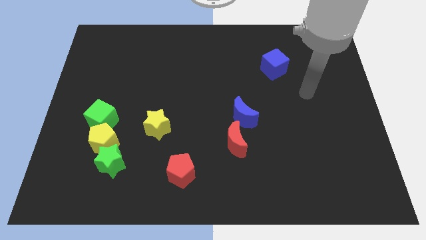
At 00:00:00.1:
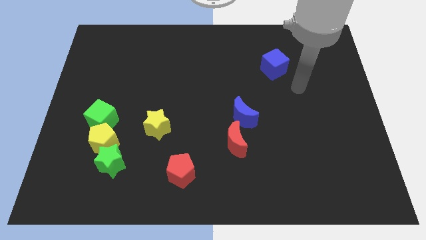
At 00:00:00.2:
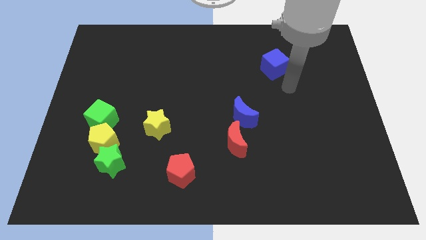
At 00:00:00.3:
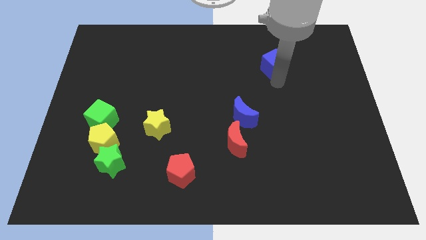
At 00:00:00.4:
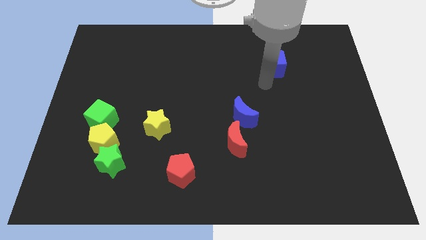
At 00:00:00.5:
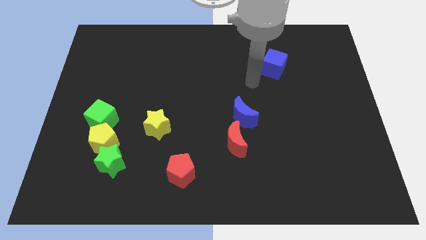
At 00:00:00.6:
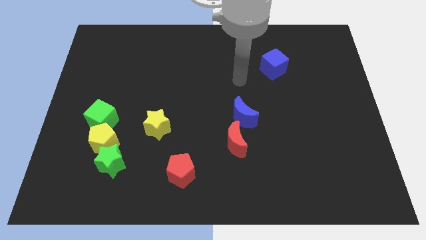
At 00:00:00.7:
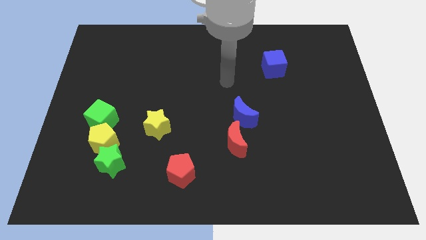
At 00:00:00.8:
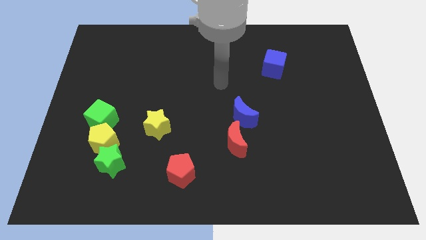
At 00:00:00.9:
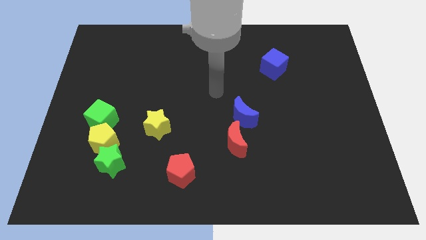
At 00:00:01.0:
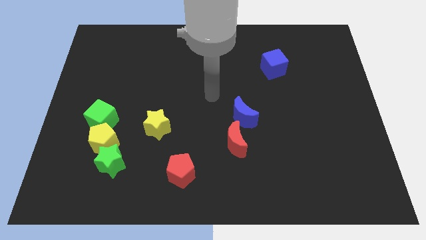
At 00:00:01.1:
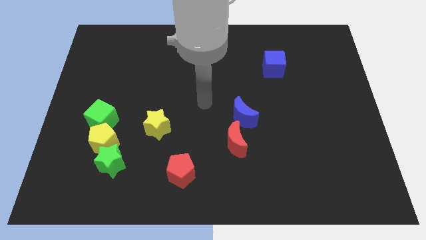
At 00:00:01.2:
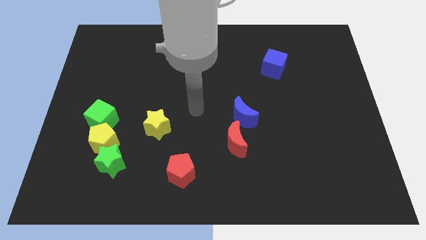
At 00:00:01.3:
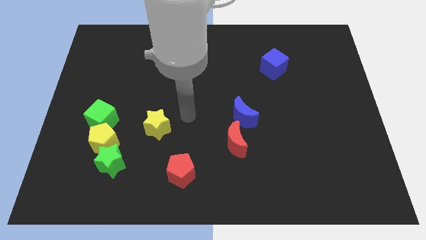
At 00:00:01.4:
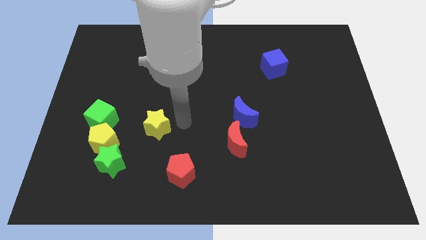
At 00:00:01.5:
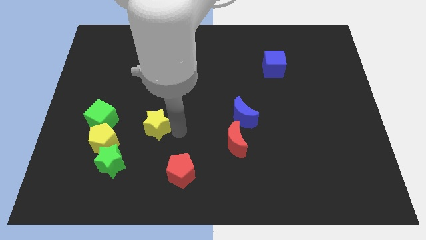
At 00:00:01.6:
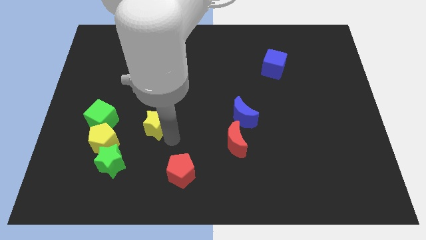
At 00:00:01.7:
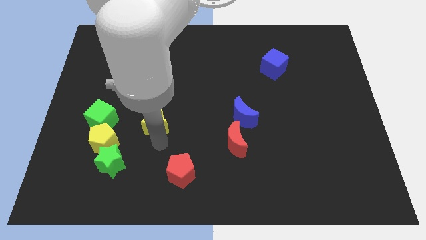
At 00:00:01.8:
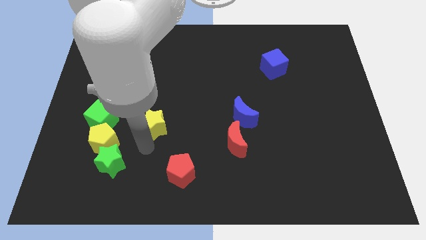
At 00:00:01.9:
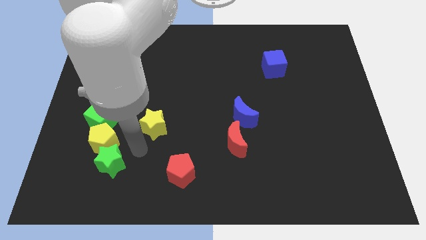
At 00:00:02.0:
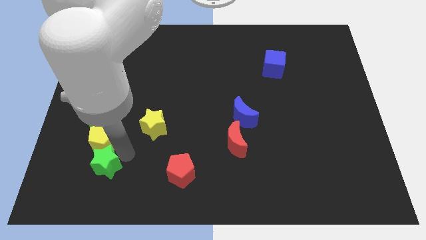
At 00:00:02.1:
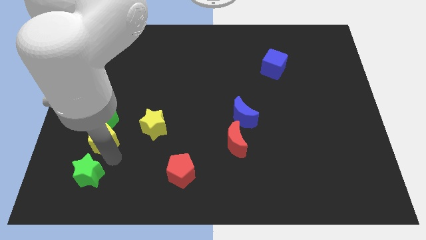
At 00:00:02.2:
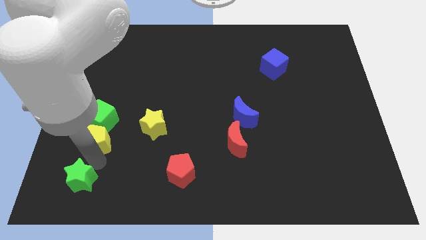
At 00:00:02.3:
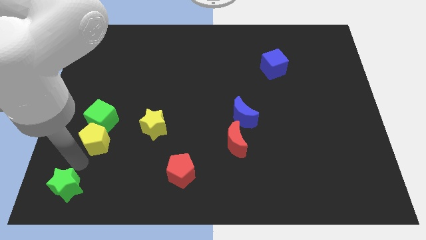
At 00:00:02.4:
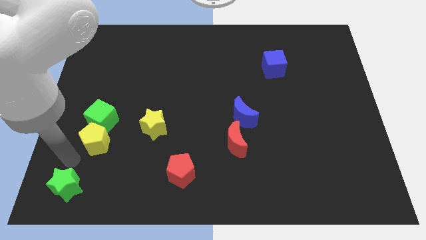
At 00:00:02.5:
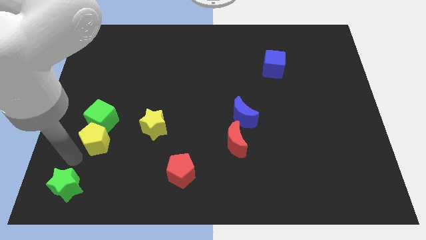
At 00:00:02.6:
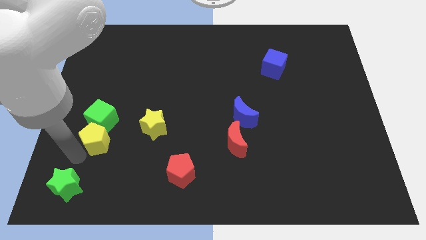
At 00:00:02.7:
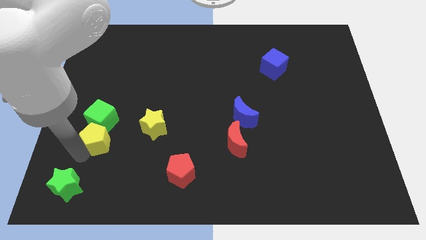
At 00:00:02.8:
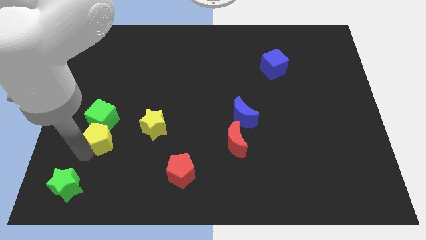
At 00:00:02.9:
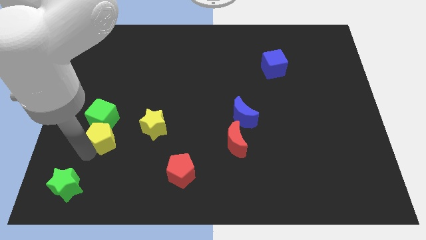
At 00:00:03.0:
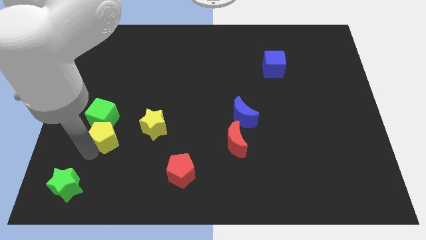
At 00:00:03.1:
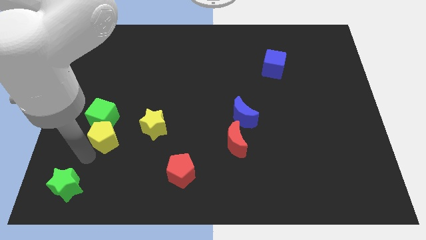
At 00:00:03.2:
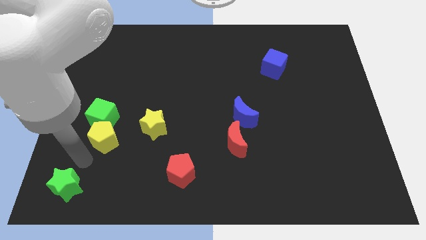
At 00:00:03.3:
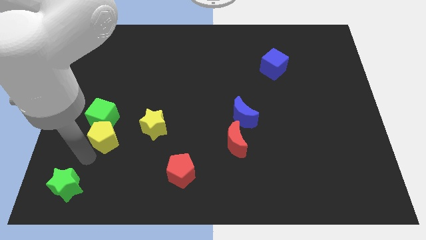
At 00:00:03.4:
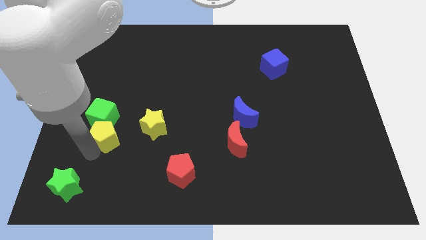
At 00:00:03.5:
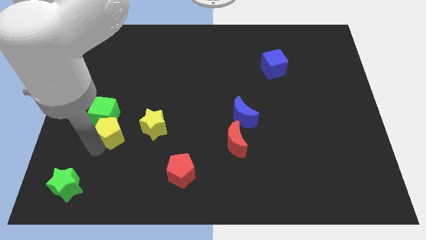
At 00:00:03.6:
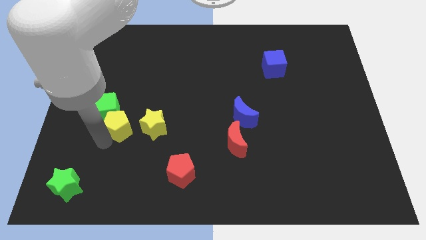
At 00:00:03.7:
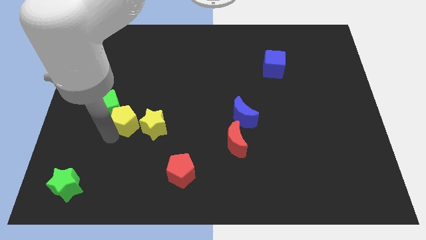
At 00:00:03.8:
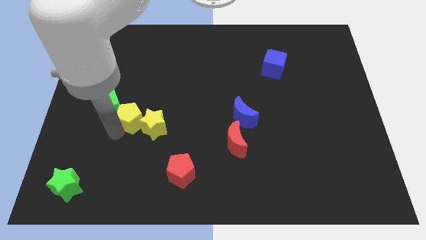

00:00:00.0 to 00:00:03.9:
slightly move the yellow pentagon upwards and then right

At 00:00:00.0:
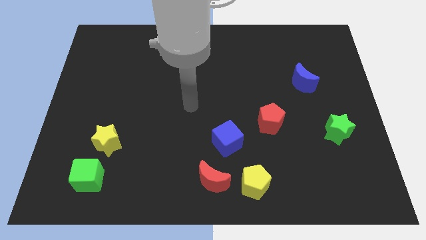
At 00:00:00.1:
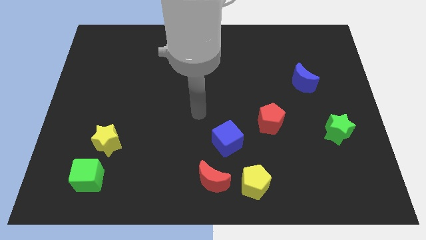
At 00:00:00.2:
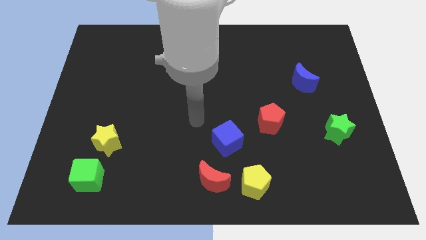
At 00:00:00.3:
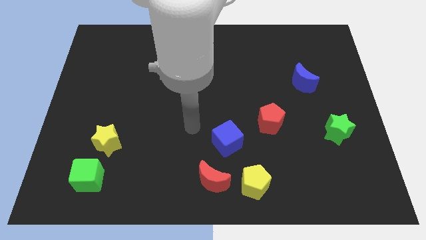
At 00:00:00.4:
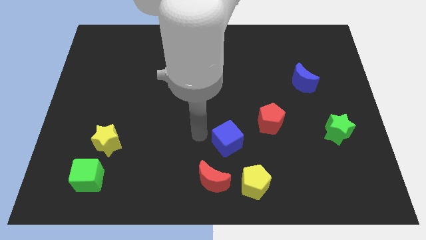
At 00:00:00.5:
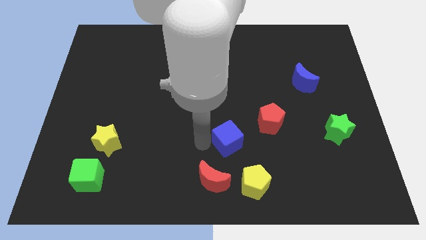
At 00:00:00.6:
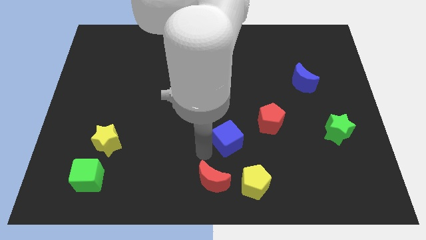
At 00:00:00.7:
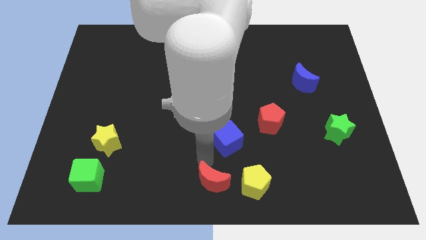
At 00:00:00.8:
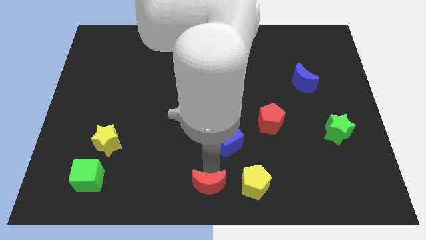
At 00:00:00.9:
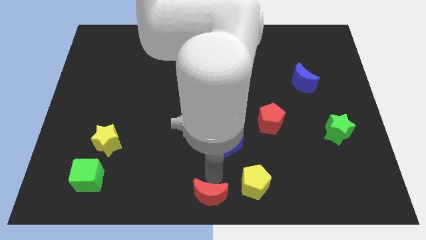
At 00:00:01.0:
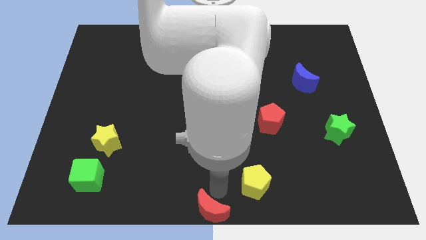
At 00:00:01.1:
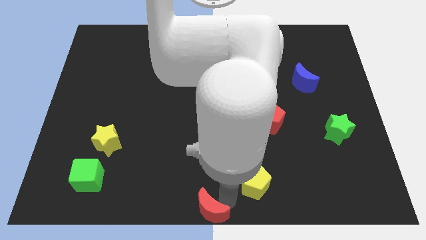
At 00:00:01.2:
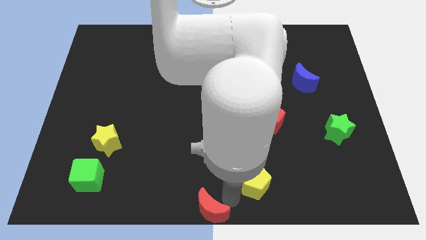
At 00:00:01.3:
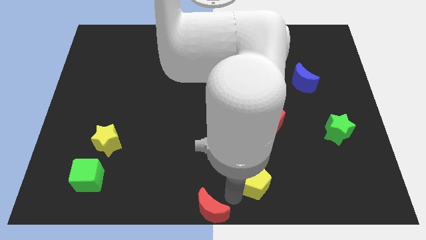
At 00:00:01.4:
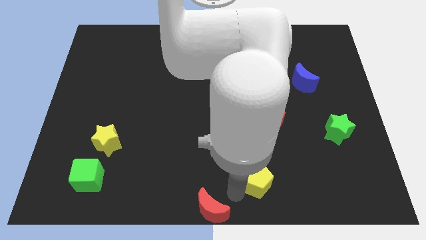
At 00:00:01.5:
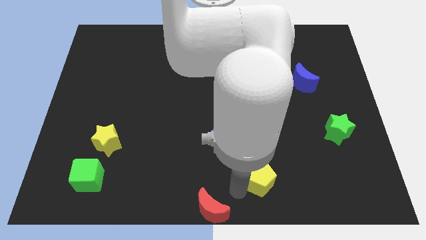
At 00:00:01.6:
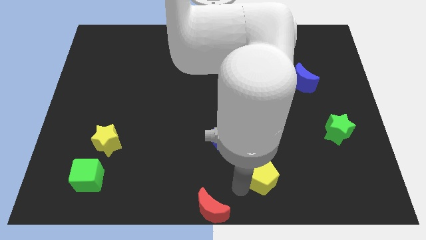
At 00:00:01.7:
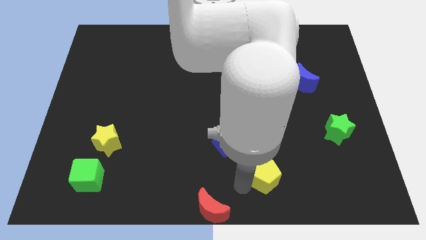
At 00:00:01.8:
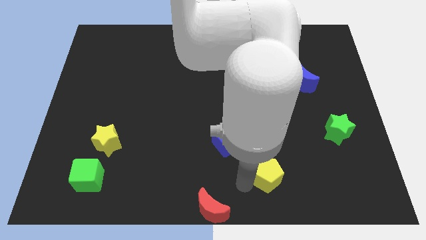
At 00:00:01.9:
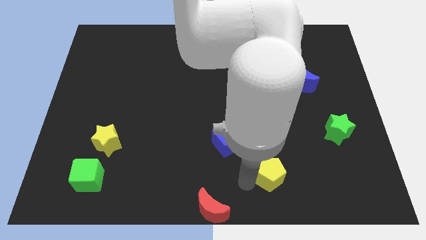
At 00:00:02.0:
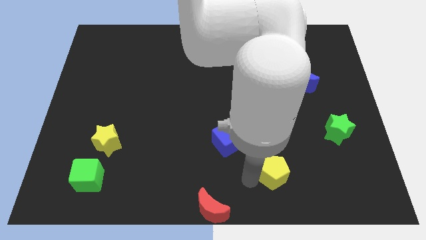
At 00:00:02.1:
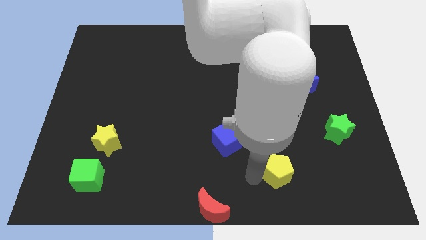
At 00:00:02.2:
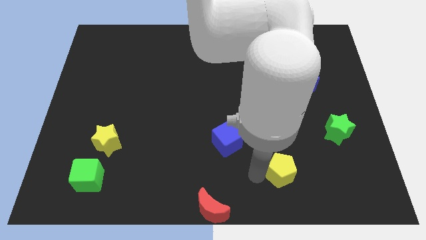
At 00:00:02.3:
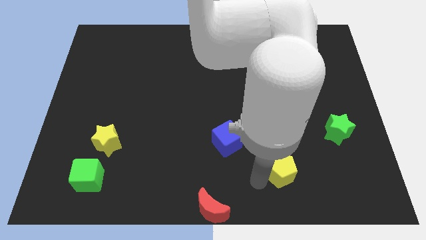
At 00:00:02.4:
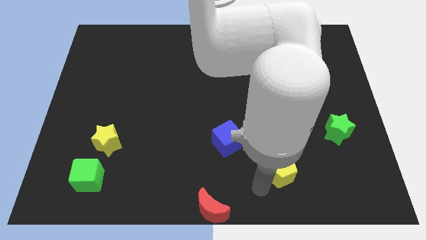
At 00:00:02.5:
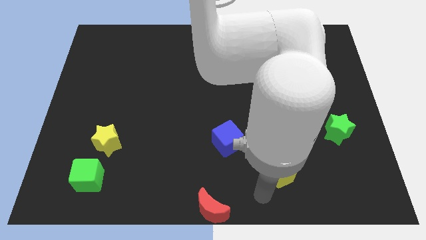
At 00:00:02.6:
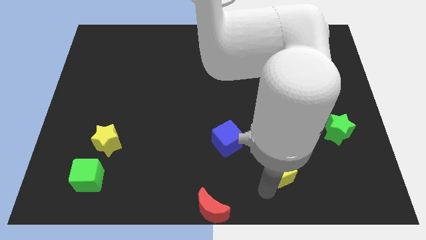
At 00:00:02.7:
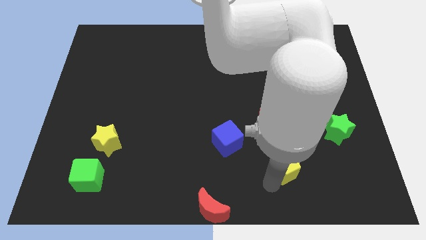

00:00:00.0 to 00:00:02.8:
push the yellow pentagon a little bit diagonally up and right

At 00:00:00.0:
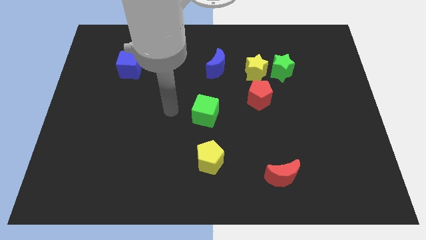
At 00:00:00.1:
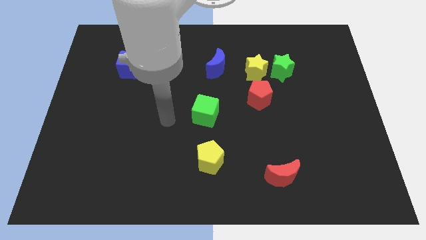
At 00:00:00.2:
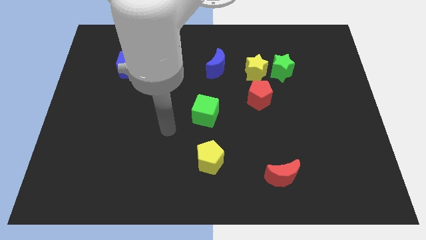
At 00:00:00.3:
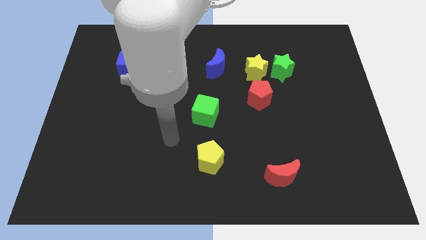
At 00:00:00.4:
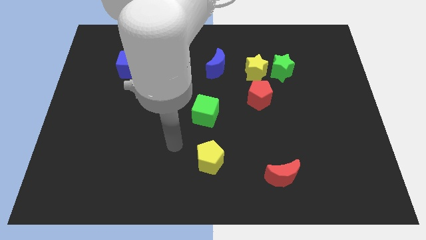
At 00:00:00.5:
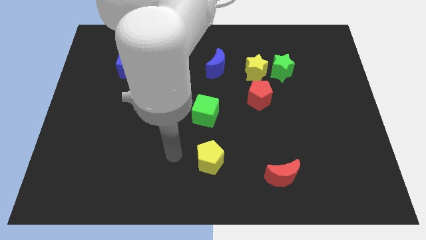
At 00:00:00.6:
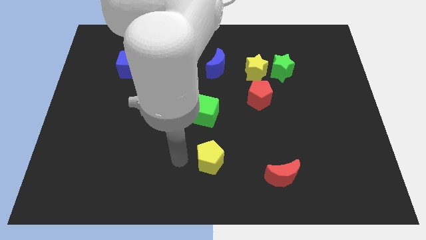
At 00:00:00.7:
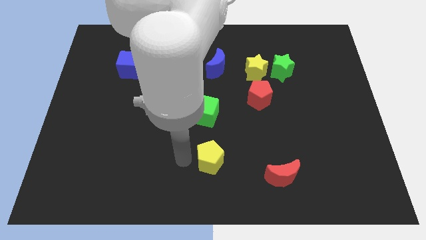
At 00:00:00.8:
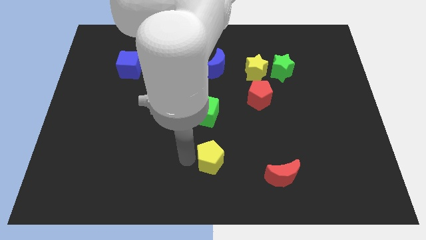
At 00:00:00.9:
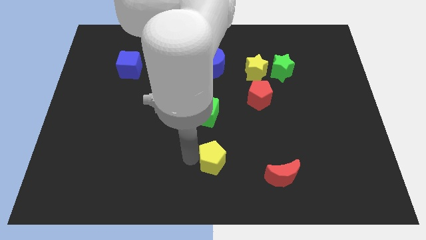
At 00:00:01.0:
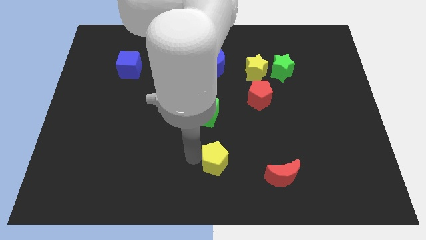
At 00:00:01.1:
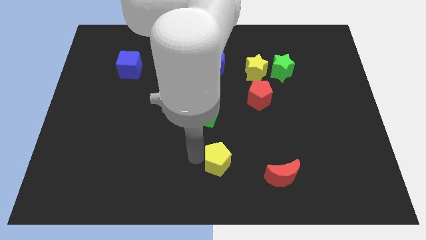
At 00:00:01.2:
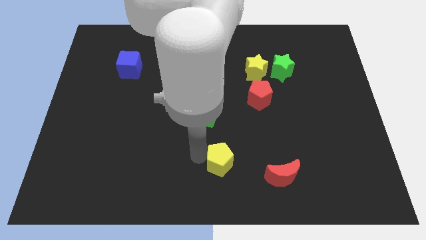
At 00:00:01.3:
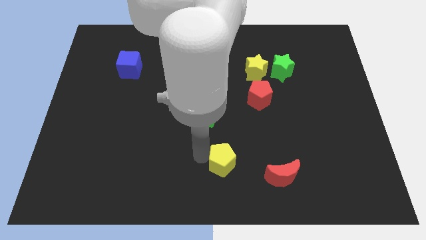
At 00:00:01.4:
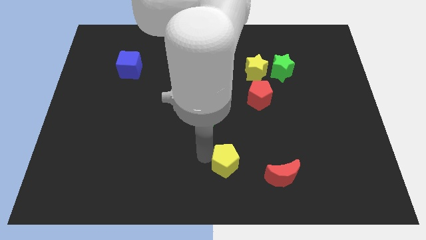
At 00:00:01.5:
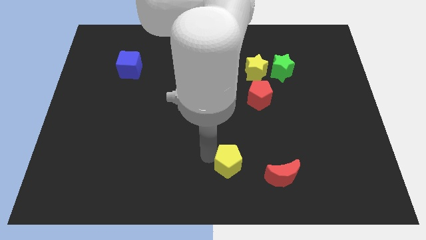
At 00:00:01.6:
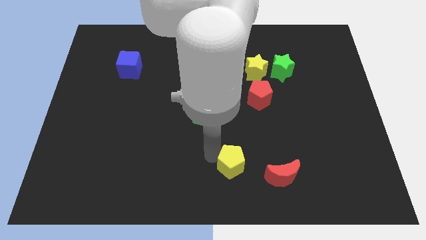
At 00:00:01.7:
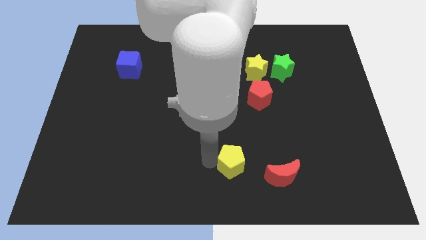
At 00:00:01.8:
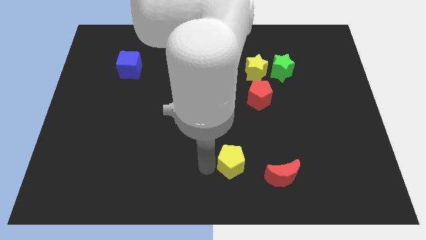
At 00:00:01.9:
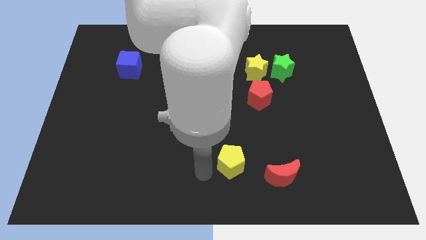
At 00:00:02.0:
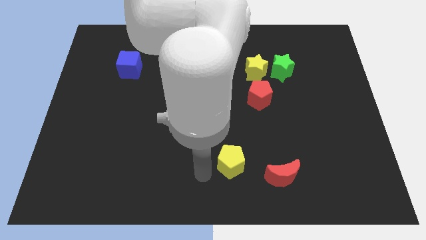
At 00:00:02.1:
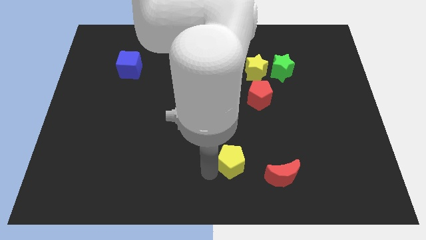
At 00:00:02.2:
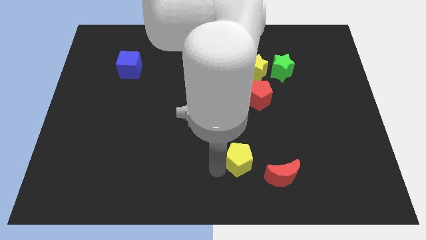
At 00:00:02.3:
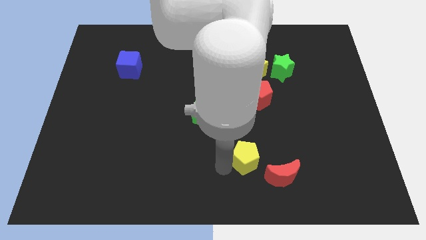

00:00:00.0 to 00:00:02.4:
move the yellow pentagon somewhat right
